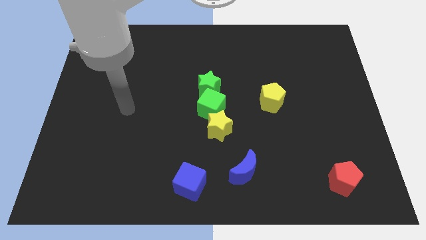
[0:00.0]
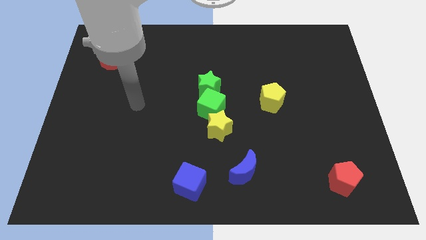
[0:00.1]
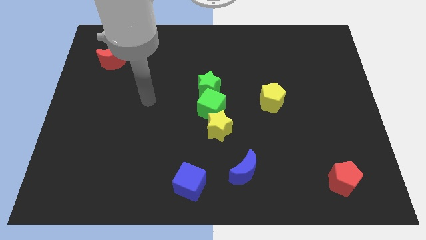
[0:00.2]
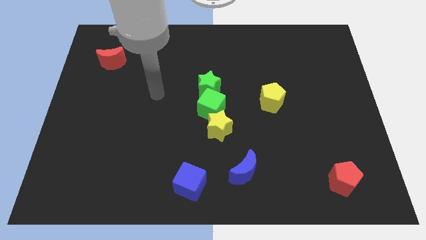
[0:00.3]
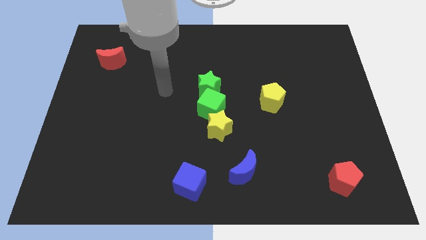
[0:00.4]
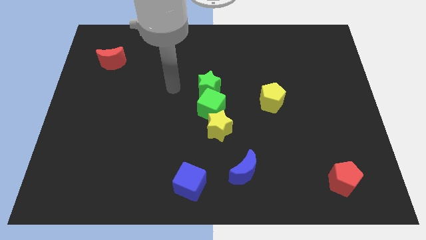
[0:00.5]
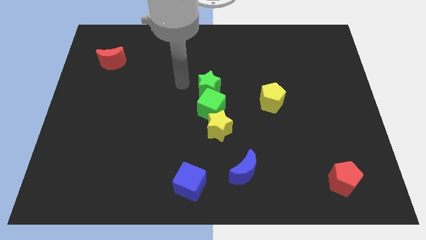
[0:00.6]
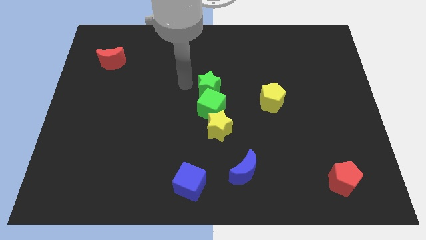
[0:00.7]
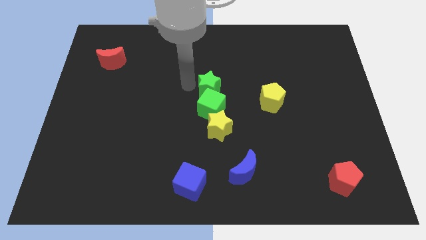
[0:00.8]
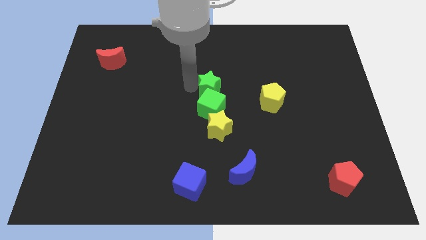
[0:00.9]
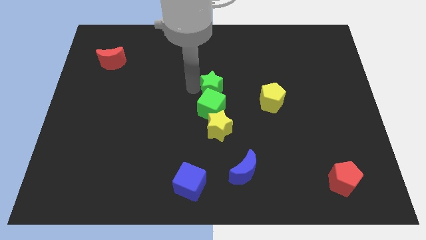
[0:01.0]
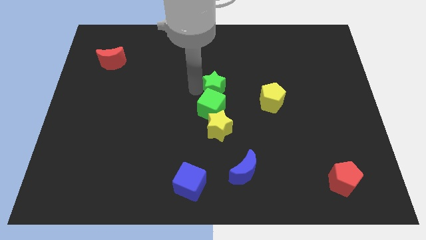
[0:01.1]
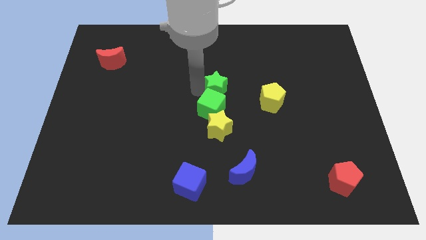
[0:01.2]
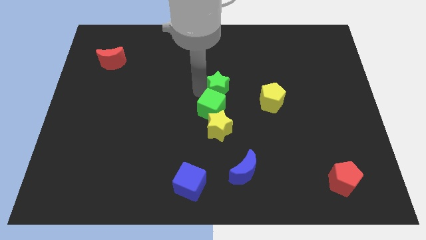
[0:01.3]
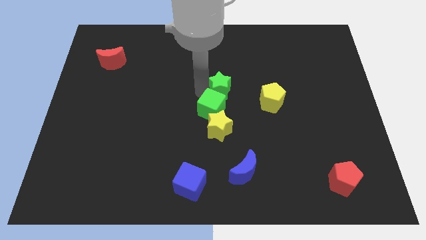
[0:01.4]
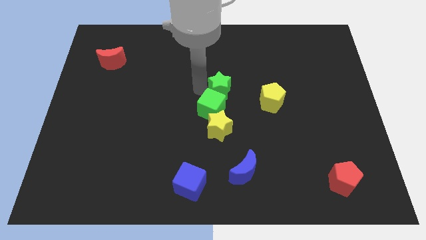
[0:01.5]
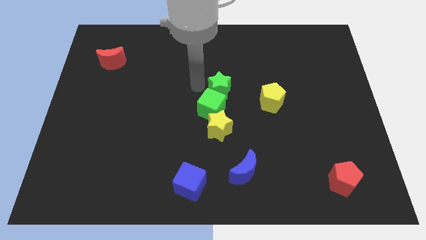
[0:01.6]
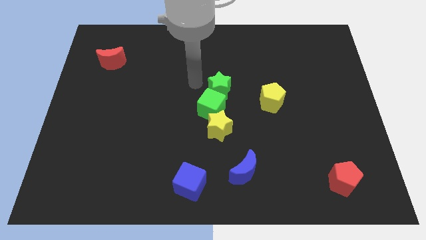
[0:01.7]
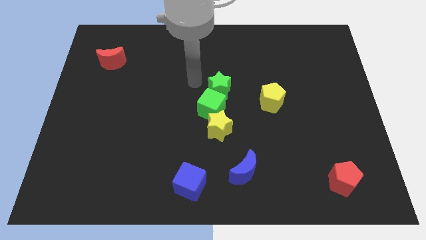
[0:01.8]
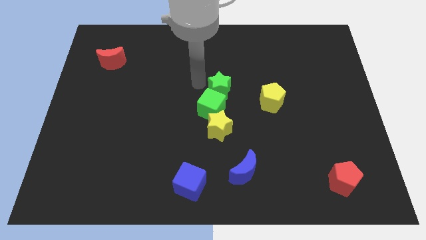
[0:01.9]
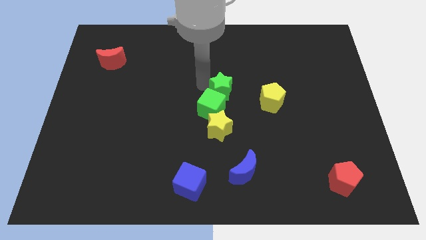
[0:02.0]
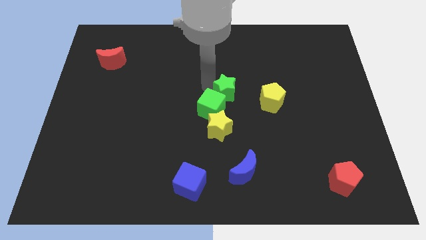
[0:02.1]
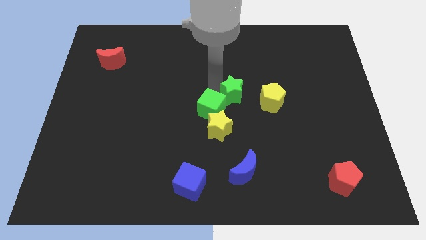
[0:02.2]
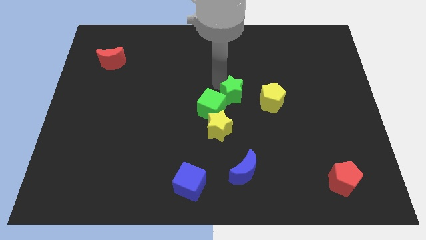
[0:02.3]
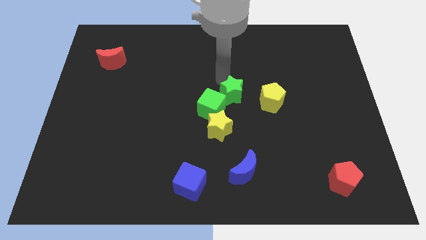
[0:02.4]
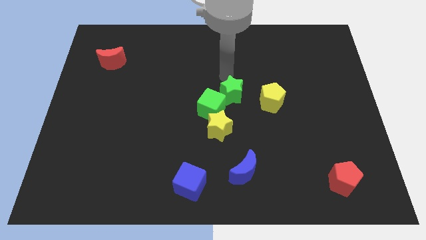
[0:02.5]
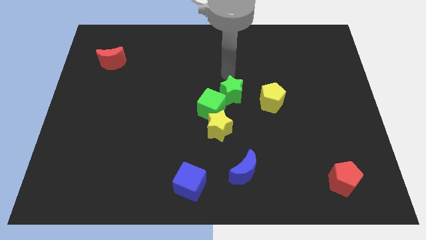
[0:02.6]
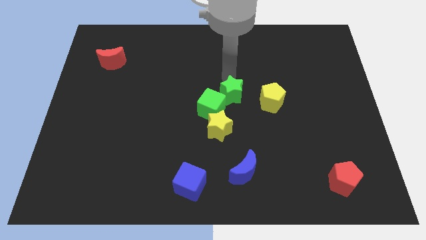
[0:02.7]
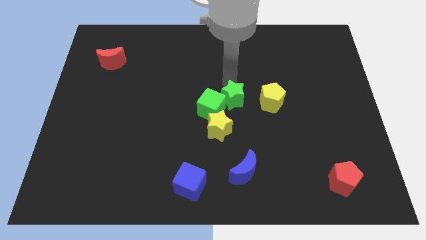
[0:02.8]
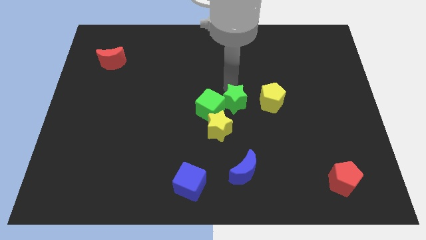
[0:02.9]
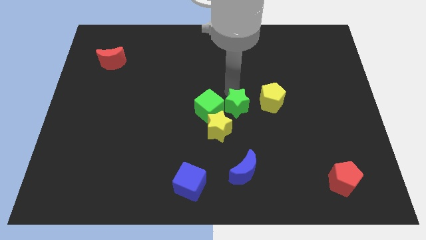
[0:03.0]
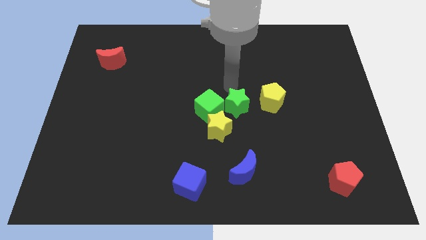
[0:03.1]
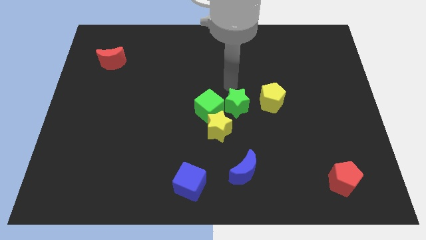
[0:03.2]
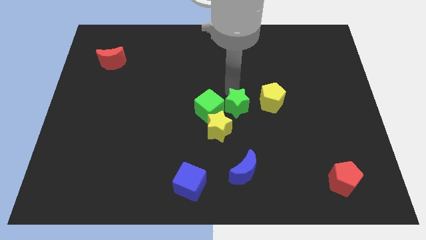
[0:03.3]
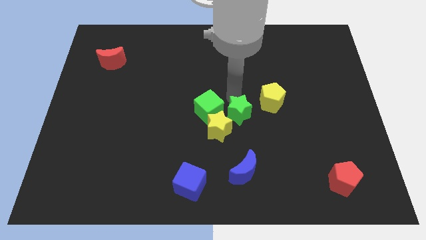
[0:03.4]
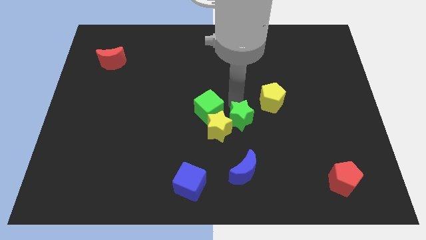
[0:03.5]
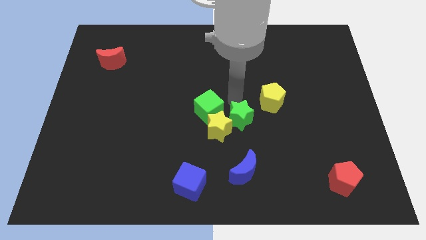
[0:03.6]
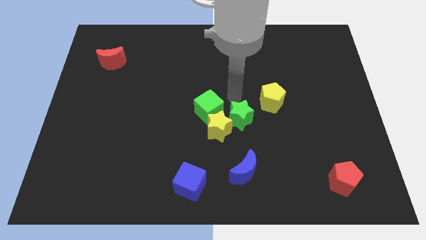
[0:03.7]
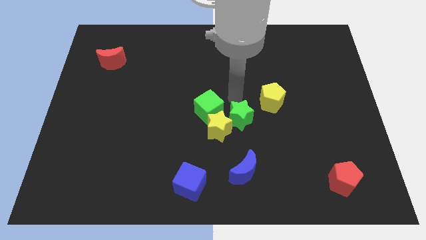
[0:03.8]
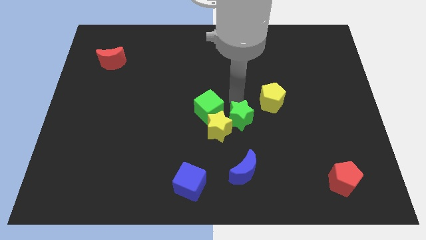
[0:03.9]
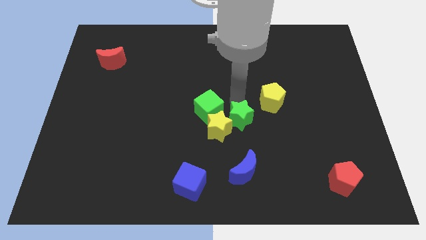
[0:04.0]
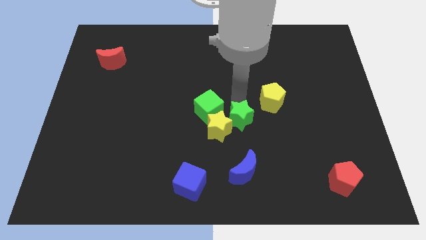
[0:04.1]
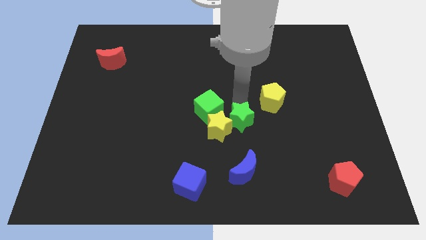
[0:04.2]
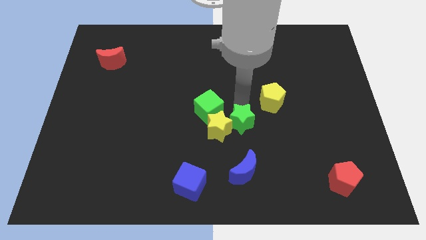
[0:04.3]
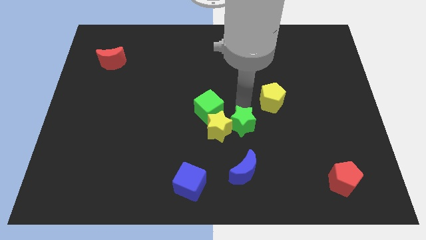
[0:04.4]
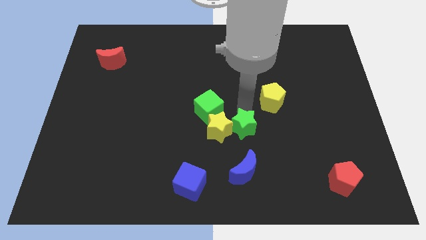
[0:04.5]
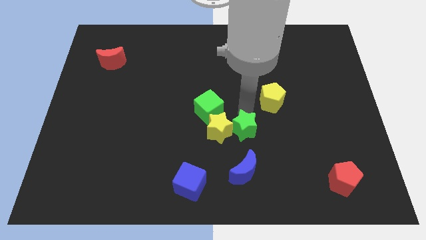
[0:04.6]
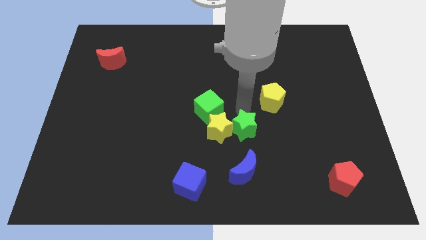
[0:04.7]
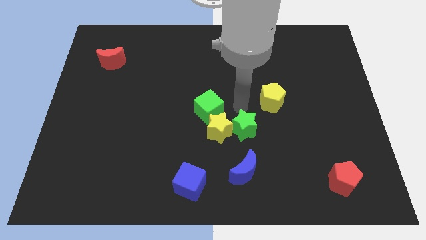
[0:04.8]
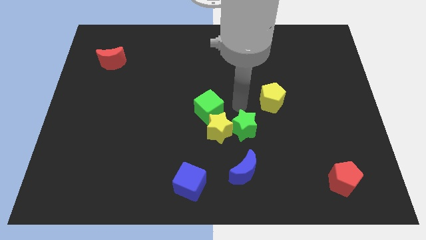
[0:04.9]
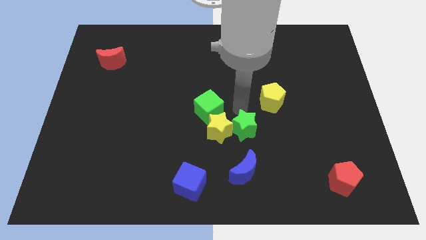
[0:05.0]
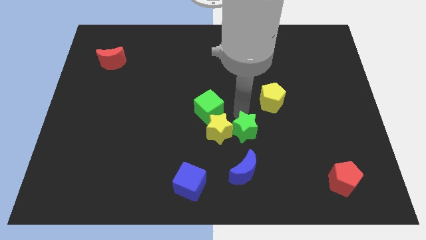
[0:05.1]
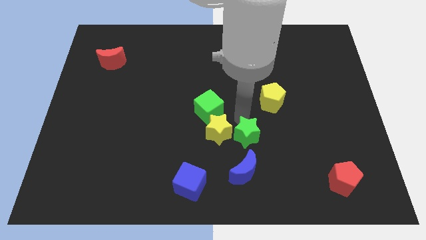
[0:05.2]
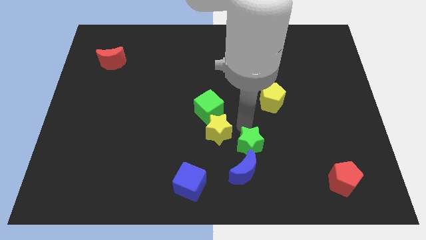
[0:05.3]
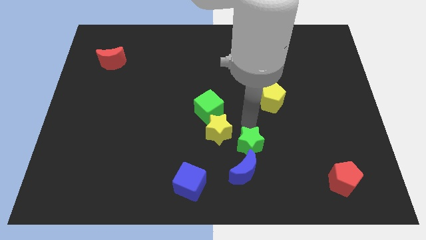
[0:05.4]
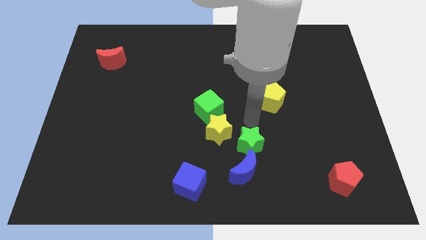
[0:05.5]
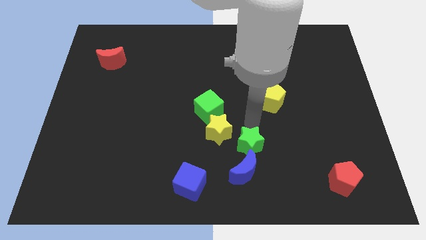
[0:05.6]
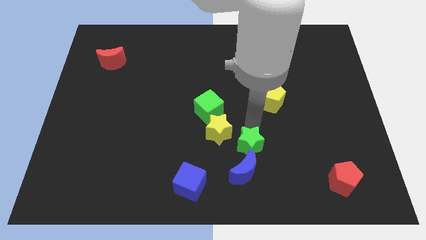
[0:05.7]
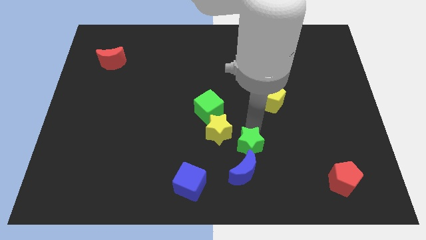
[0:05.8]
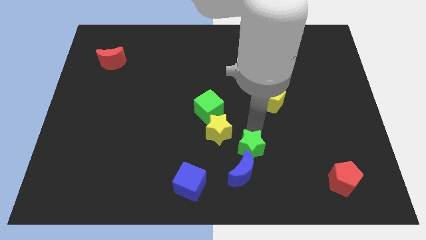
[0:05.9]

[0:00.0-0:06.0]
put the green star to the blue moon
